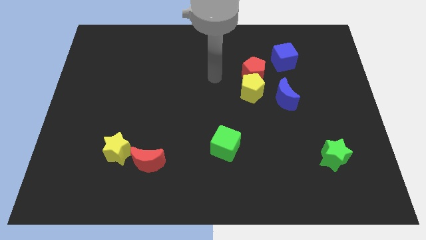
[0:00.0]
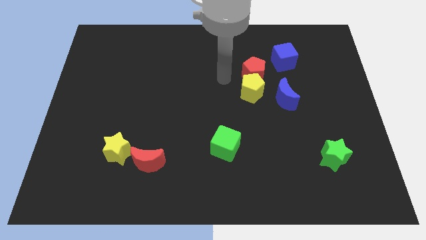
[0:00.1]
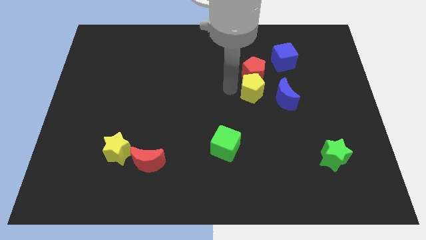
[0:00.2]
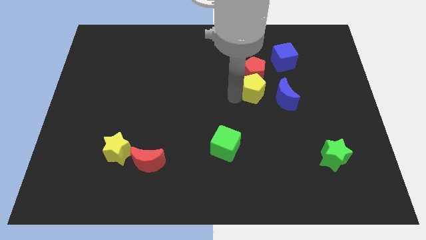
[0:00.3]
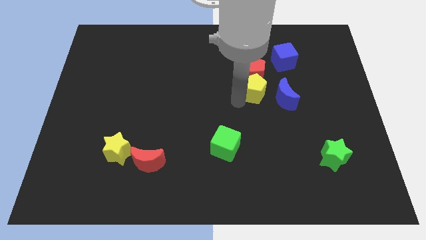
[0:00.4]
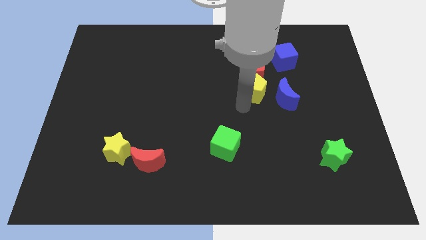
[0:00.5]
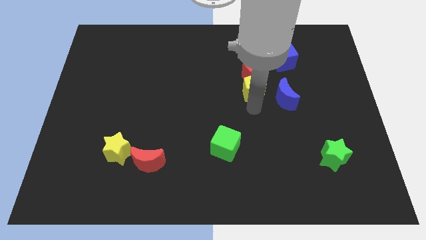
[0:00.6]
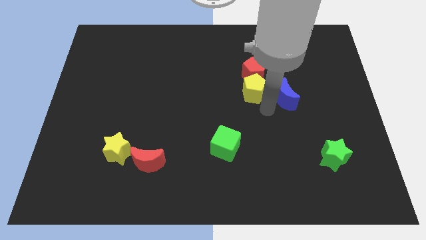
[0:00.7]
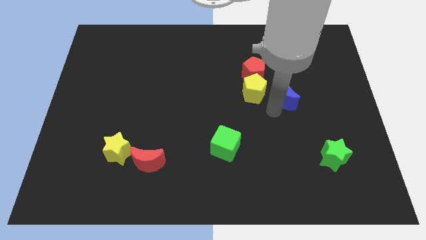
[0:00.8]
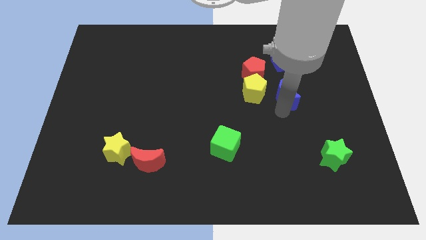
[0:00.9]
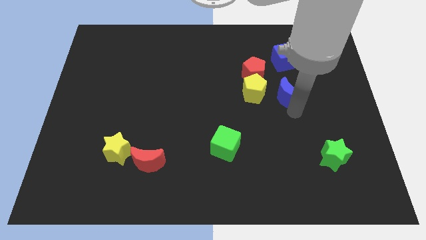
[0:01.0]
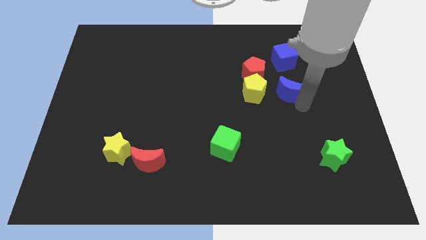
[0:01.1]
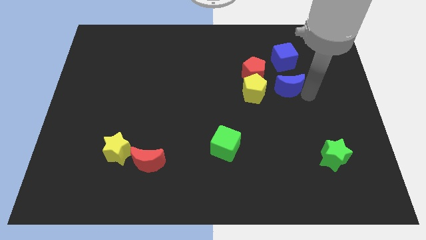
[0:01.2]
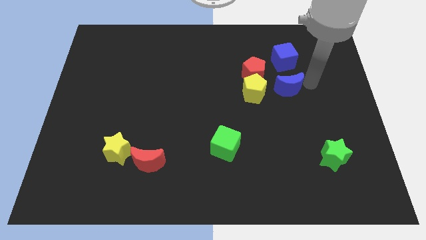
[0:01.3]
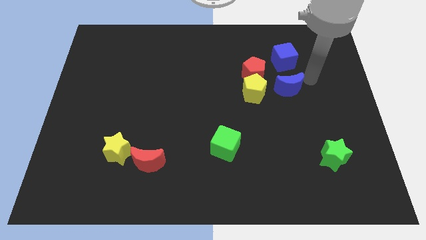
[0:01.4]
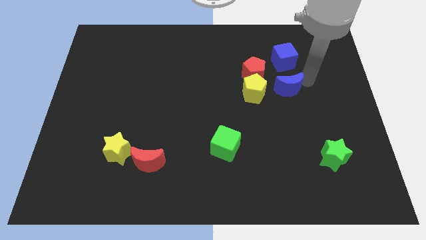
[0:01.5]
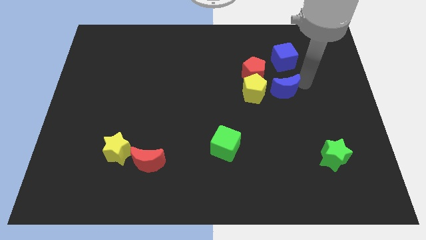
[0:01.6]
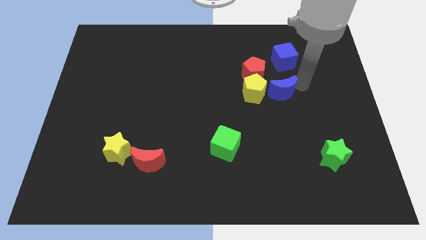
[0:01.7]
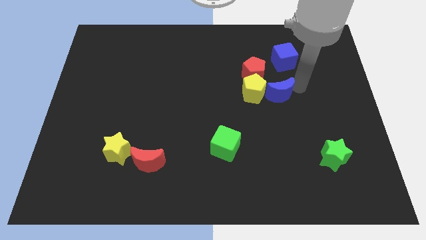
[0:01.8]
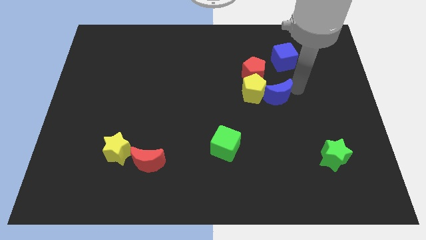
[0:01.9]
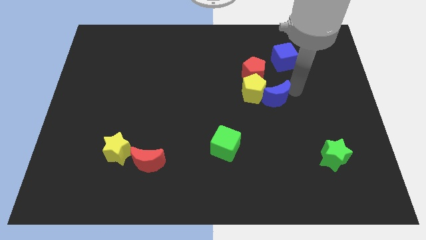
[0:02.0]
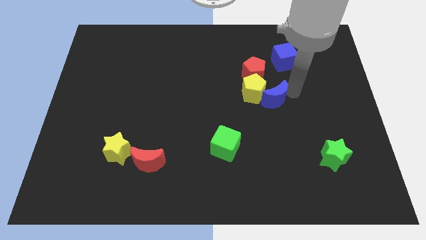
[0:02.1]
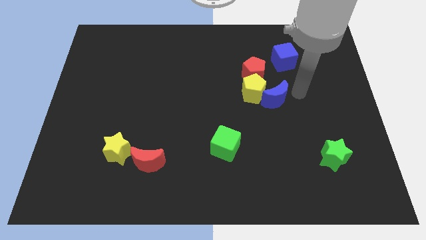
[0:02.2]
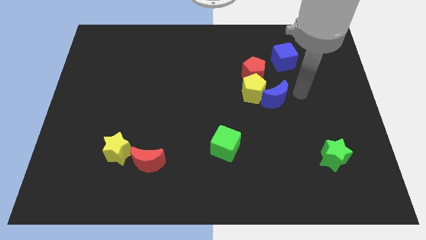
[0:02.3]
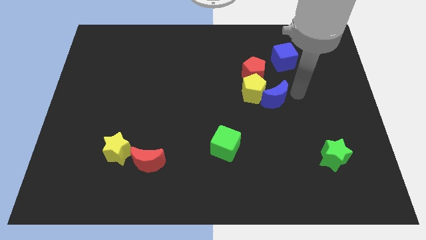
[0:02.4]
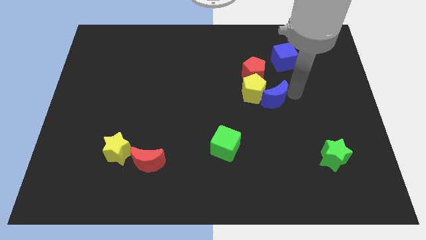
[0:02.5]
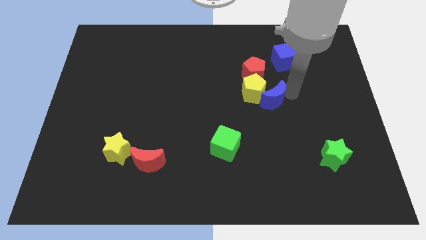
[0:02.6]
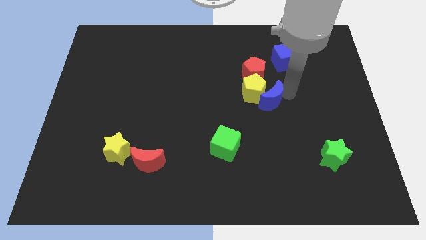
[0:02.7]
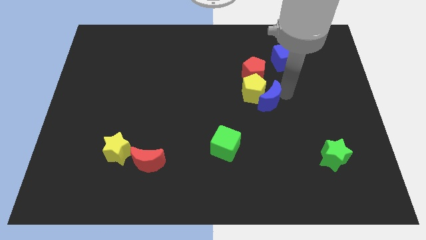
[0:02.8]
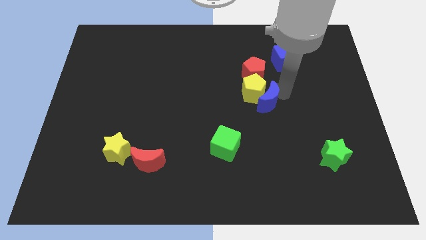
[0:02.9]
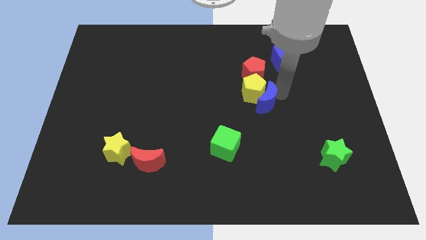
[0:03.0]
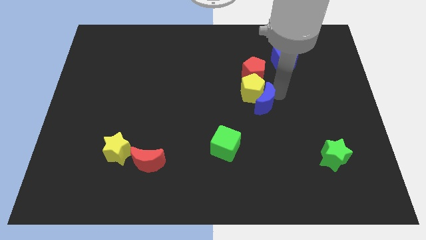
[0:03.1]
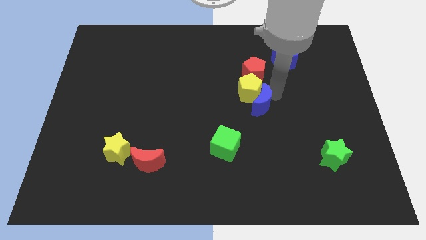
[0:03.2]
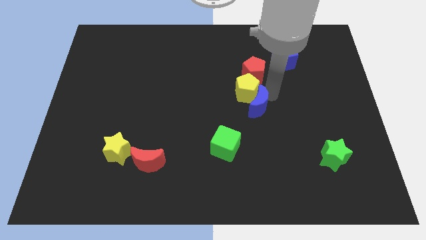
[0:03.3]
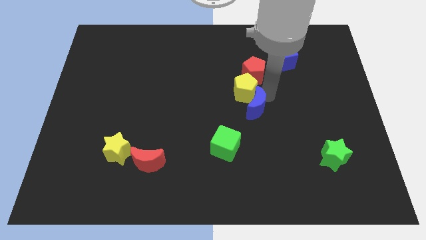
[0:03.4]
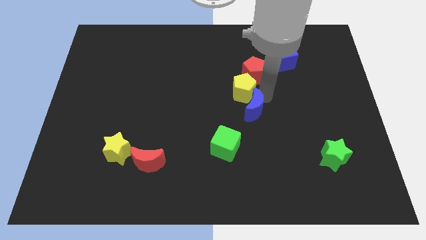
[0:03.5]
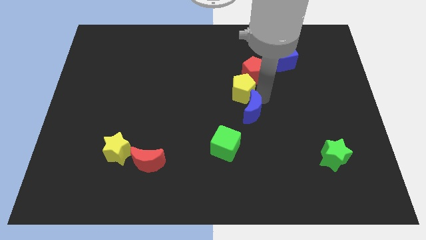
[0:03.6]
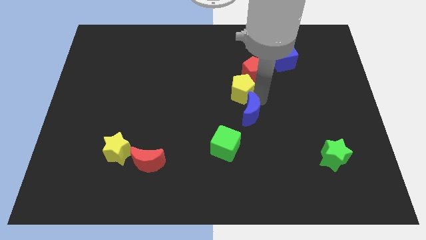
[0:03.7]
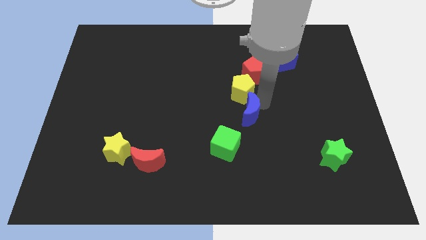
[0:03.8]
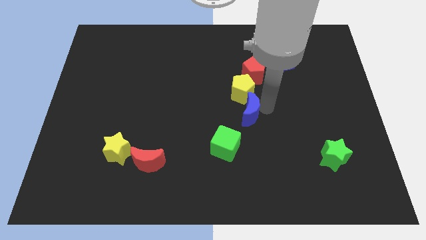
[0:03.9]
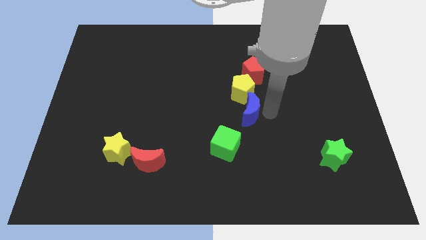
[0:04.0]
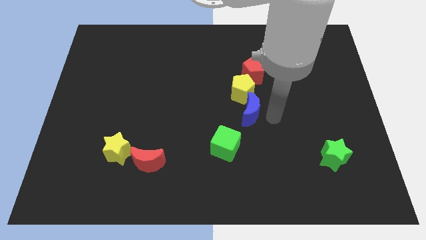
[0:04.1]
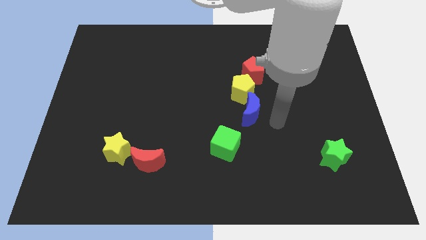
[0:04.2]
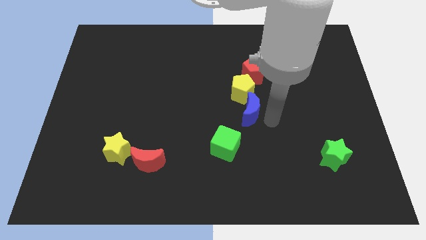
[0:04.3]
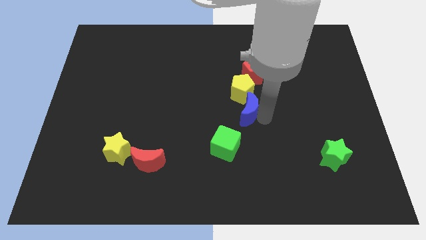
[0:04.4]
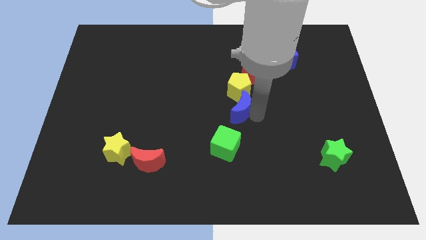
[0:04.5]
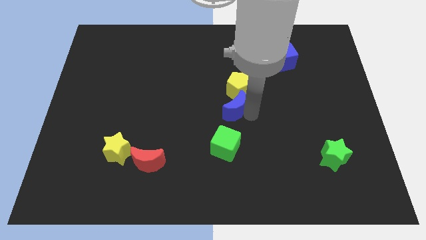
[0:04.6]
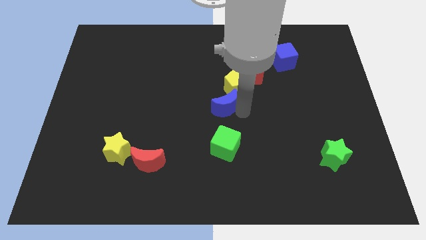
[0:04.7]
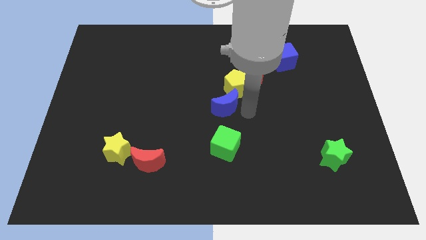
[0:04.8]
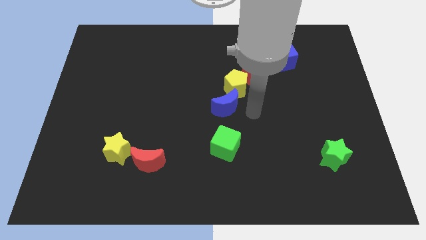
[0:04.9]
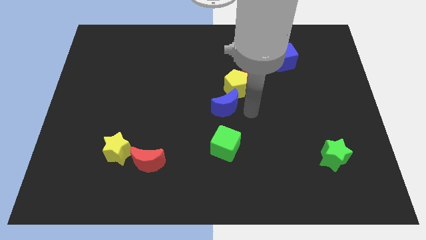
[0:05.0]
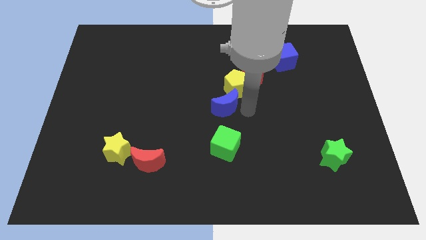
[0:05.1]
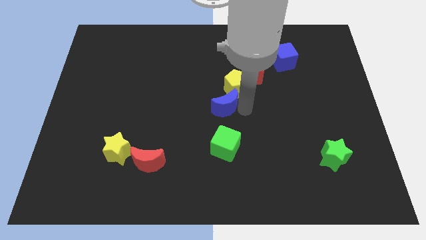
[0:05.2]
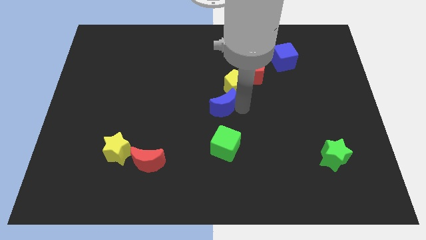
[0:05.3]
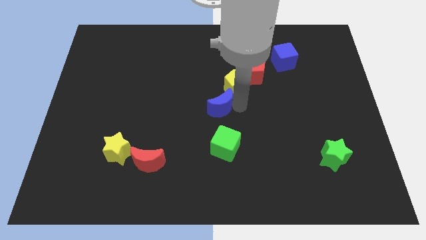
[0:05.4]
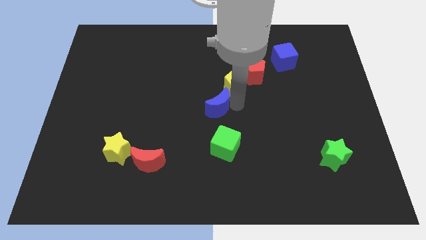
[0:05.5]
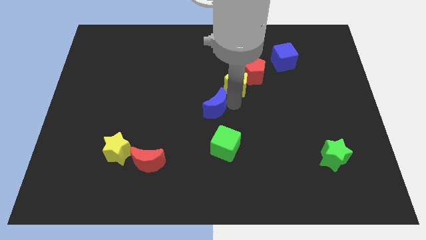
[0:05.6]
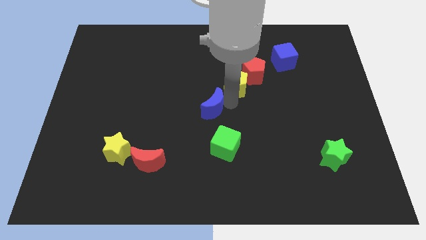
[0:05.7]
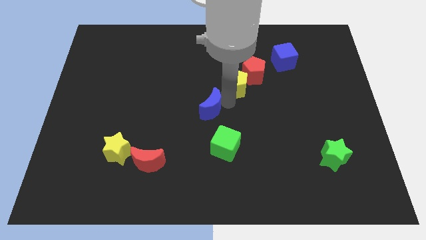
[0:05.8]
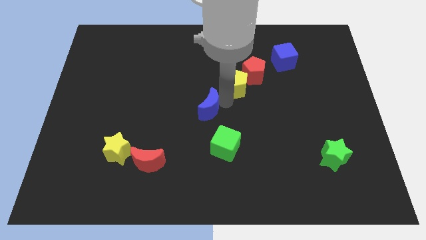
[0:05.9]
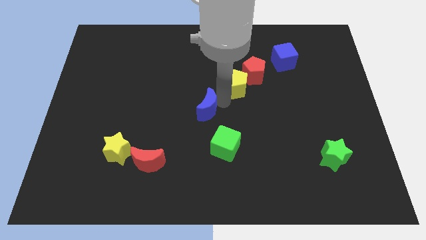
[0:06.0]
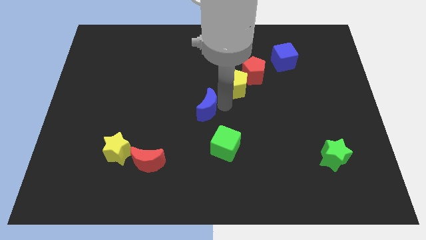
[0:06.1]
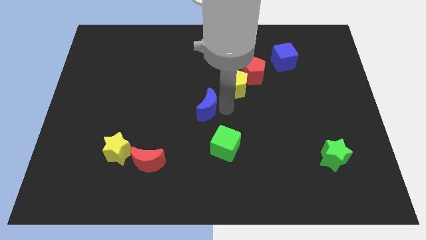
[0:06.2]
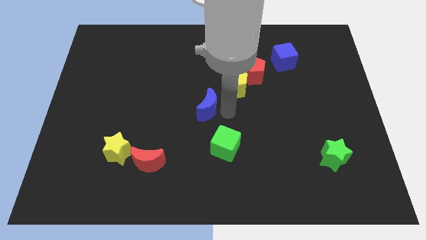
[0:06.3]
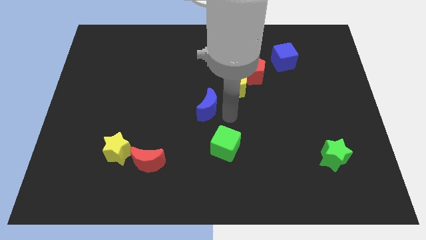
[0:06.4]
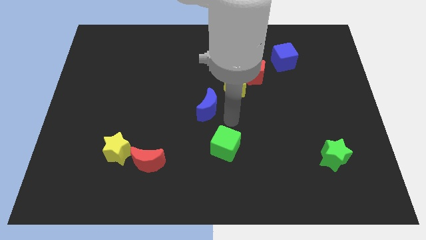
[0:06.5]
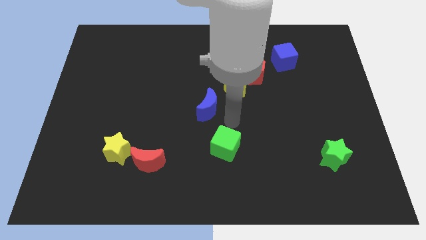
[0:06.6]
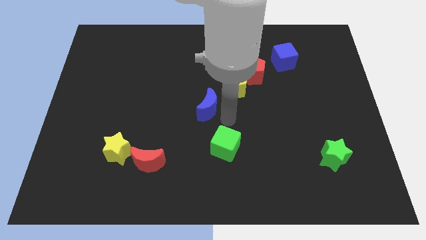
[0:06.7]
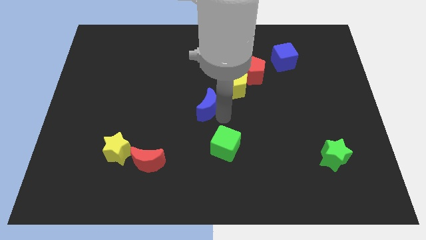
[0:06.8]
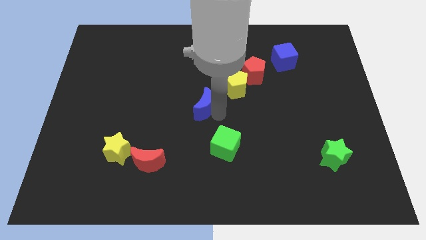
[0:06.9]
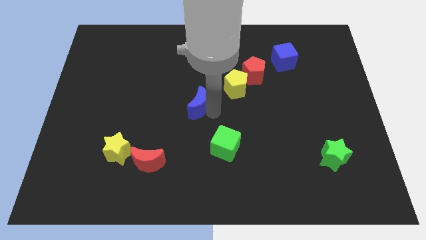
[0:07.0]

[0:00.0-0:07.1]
push the blue moon left

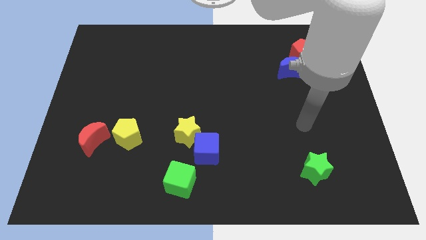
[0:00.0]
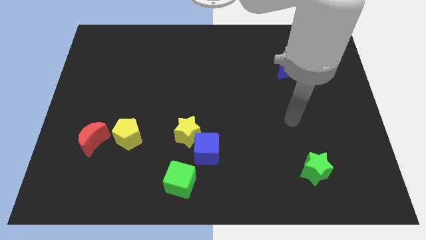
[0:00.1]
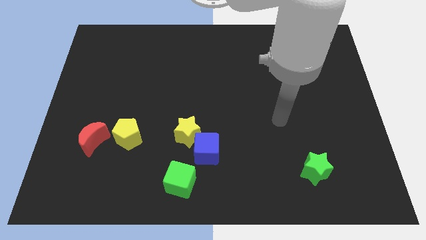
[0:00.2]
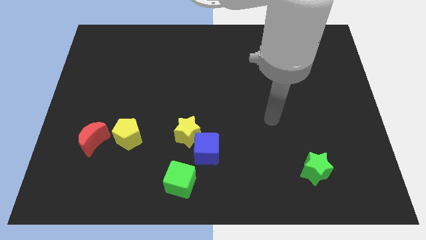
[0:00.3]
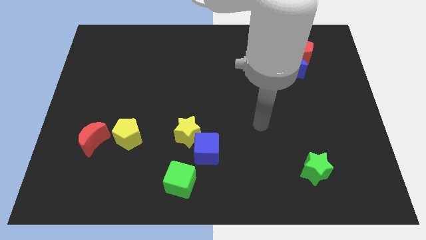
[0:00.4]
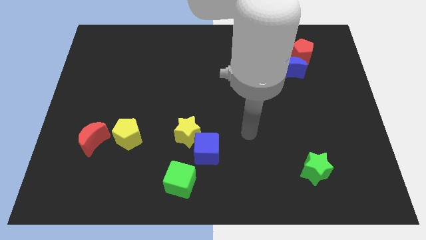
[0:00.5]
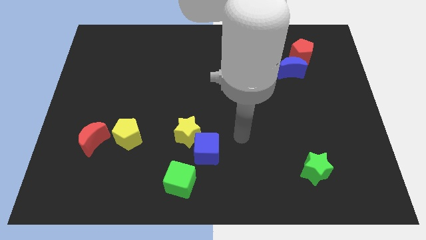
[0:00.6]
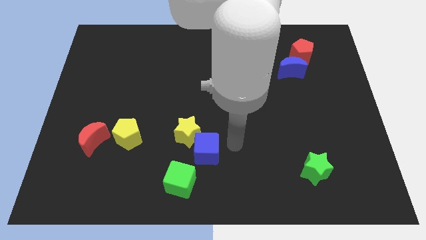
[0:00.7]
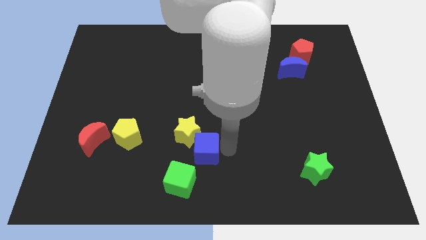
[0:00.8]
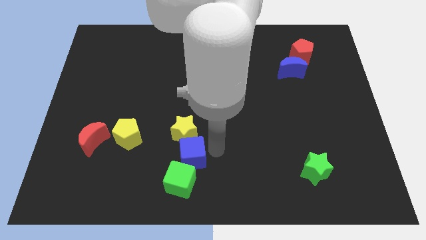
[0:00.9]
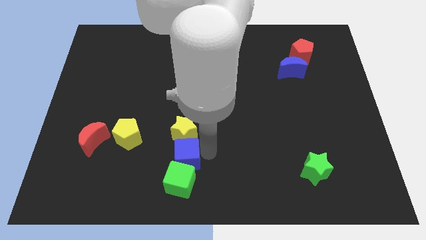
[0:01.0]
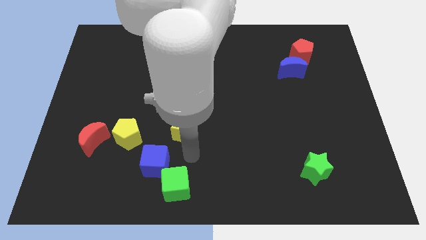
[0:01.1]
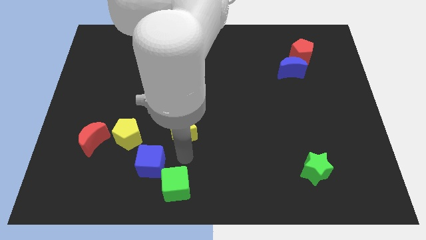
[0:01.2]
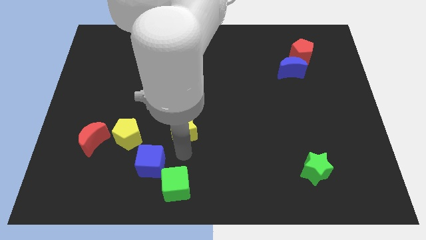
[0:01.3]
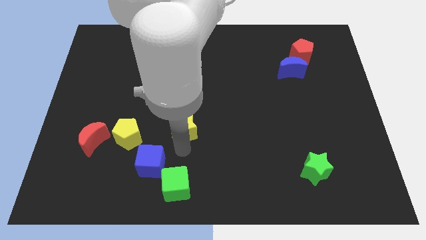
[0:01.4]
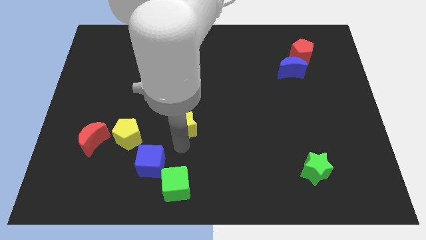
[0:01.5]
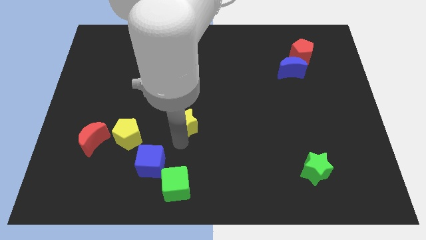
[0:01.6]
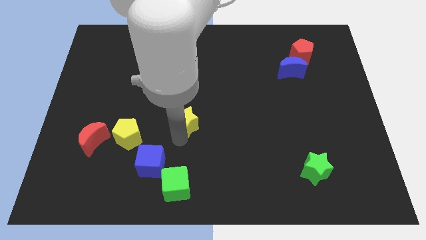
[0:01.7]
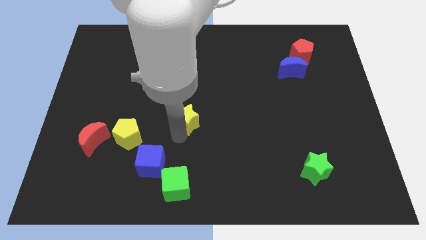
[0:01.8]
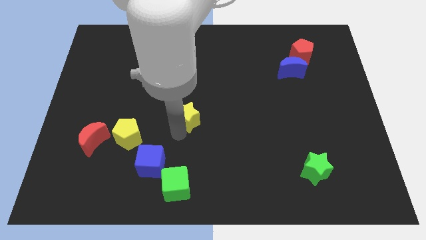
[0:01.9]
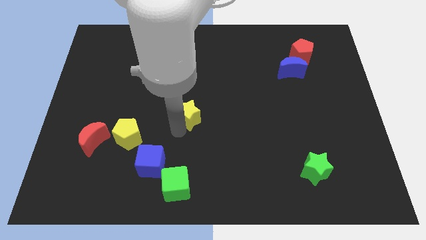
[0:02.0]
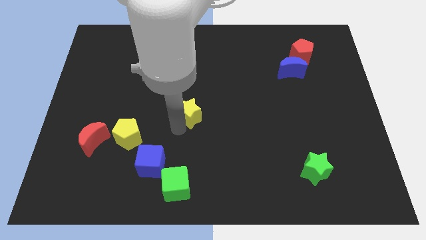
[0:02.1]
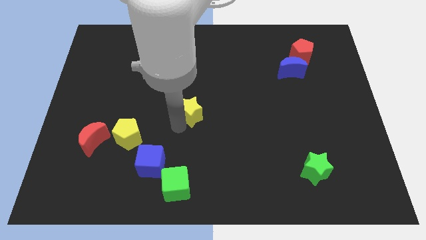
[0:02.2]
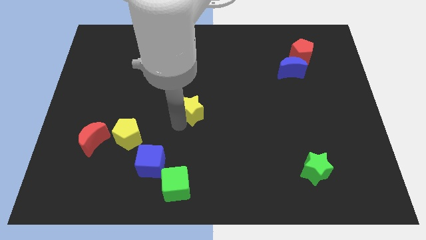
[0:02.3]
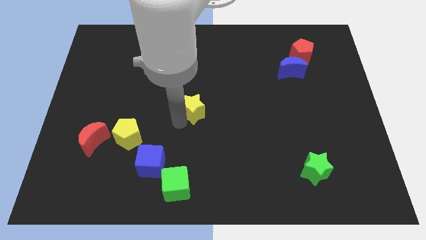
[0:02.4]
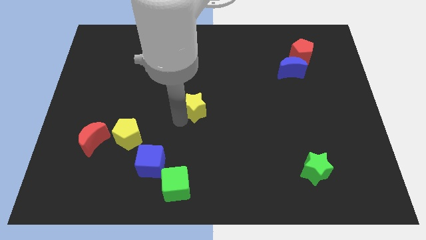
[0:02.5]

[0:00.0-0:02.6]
slide the yellow star a bit up
